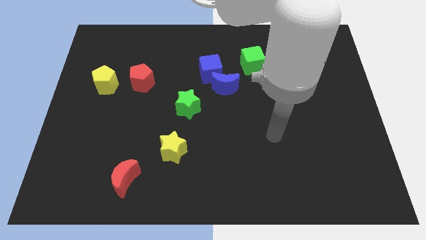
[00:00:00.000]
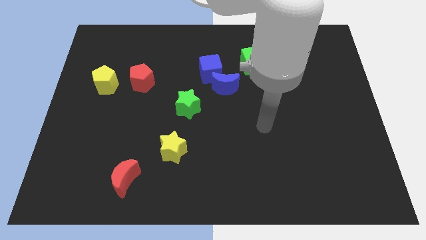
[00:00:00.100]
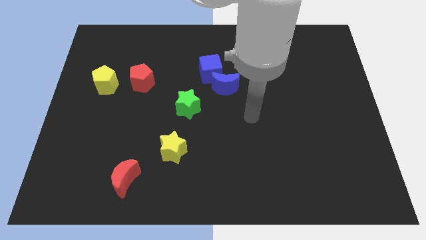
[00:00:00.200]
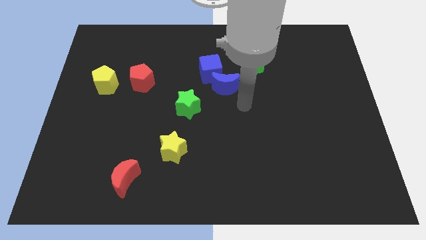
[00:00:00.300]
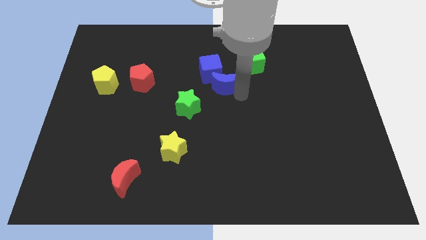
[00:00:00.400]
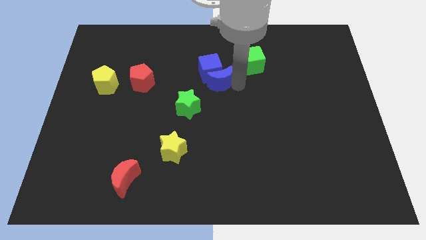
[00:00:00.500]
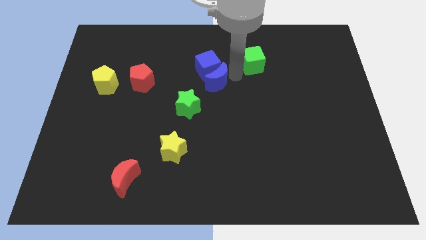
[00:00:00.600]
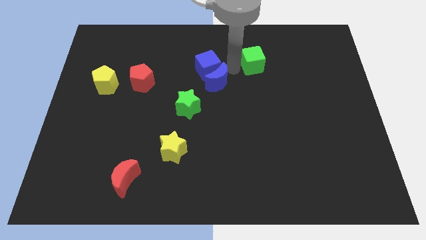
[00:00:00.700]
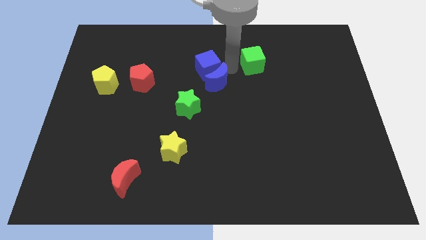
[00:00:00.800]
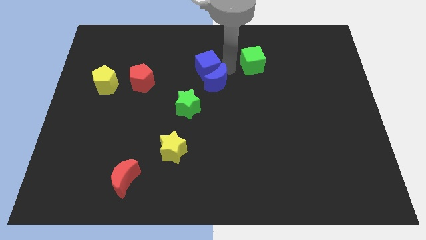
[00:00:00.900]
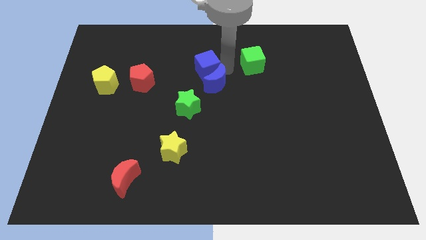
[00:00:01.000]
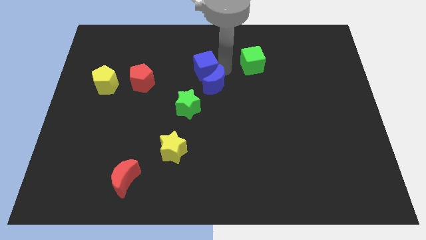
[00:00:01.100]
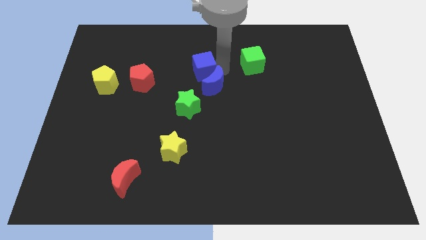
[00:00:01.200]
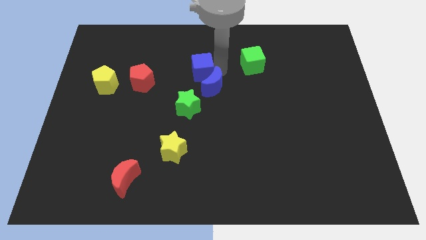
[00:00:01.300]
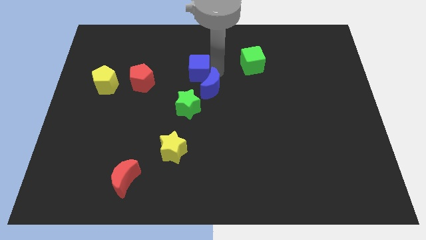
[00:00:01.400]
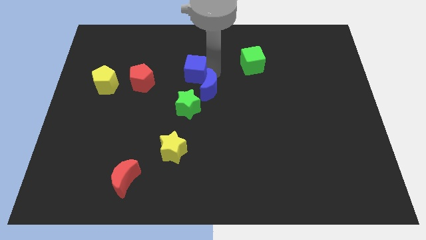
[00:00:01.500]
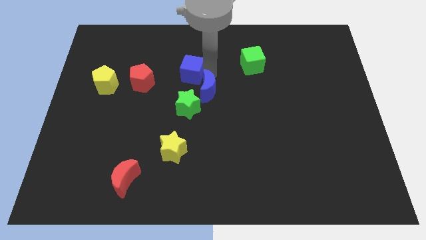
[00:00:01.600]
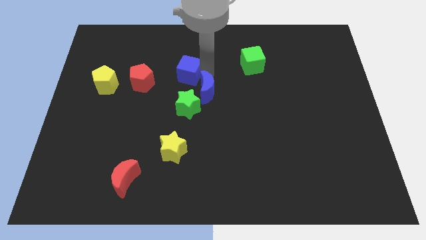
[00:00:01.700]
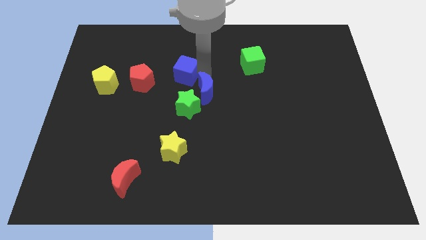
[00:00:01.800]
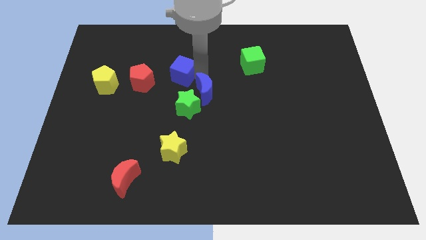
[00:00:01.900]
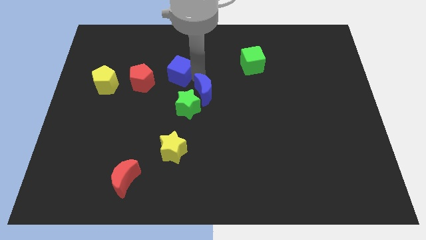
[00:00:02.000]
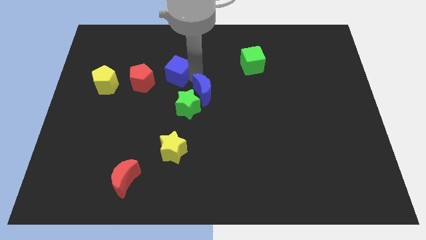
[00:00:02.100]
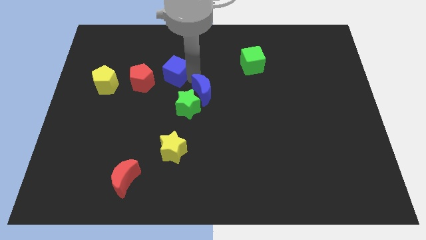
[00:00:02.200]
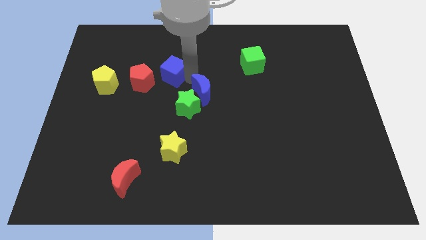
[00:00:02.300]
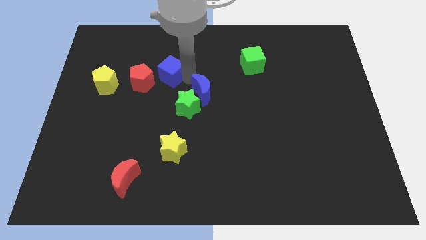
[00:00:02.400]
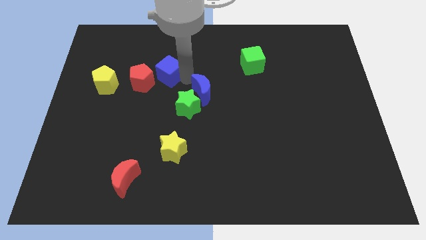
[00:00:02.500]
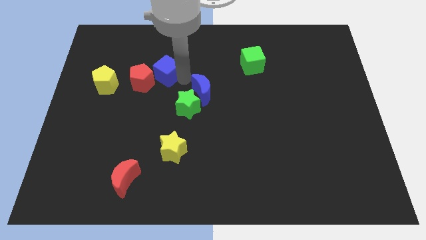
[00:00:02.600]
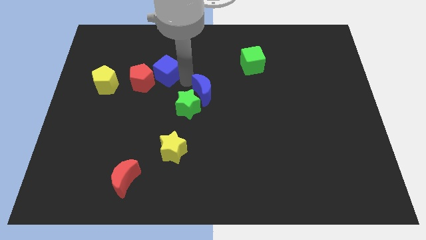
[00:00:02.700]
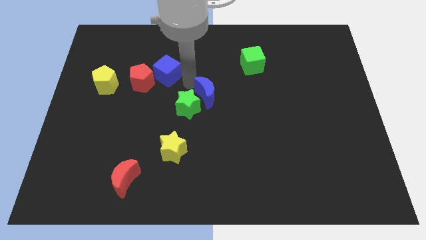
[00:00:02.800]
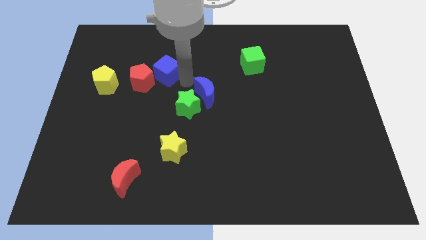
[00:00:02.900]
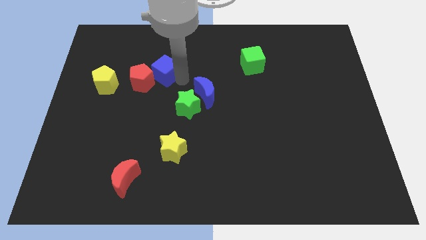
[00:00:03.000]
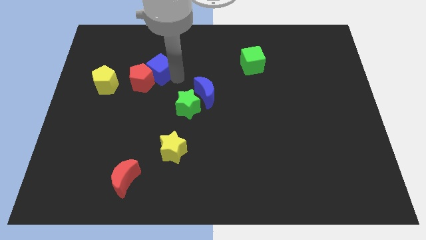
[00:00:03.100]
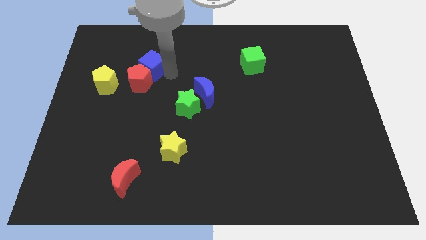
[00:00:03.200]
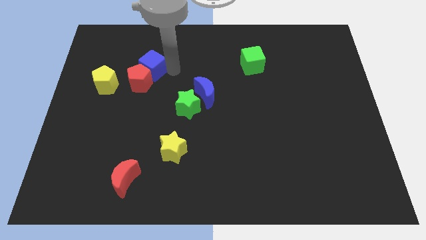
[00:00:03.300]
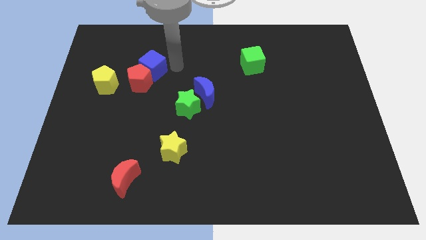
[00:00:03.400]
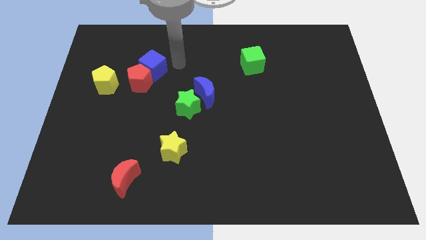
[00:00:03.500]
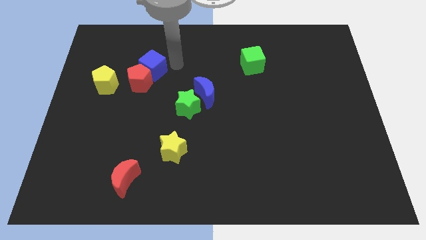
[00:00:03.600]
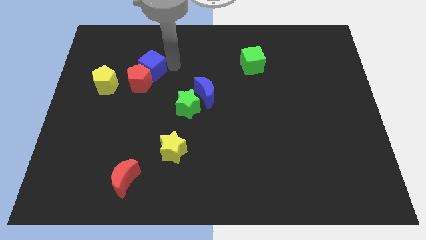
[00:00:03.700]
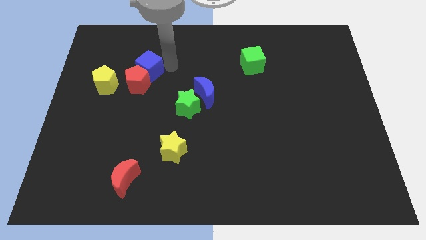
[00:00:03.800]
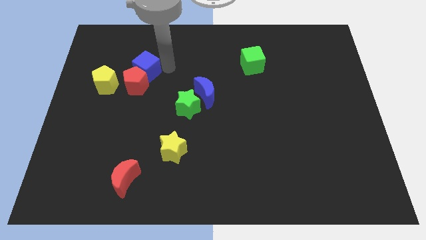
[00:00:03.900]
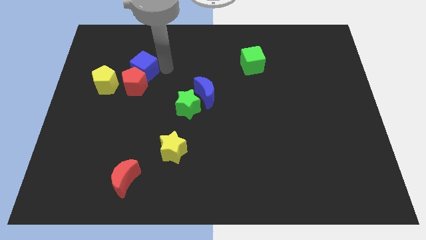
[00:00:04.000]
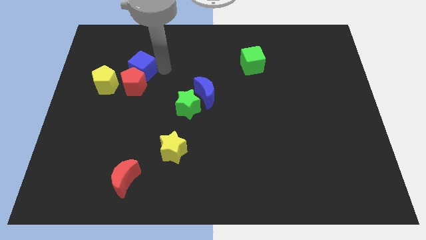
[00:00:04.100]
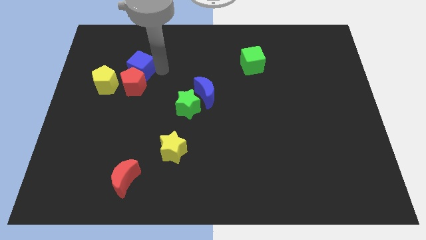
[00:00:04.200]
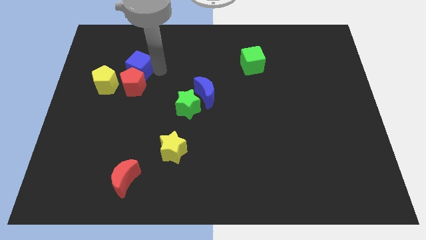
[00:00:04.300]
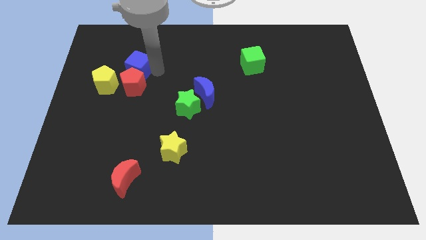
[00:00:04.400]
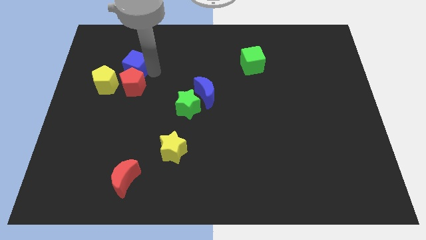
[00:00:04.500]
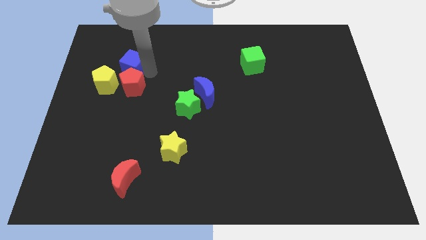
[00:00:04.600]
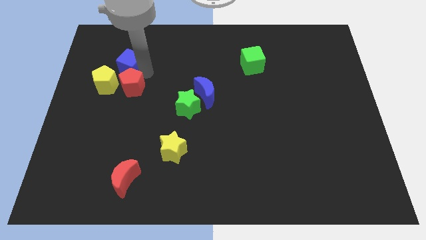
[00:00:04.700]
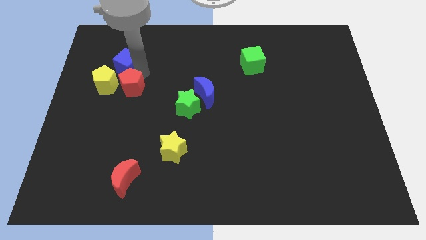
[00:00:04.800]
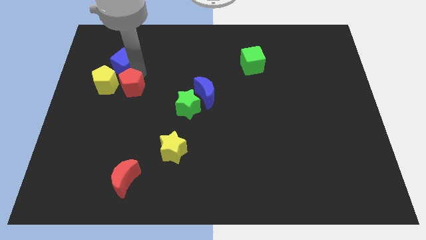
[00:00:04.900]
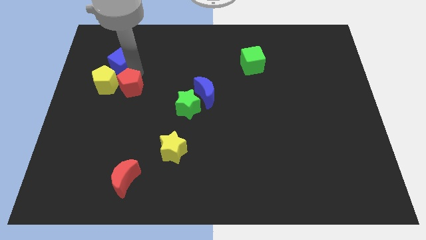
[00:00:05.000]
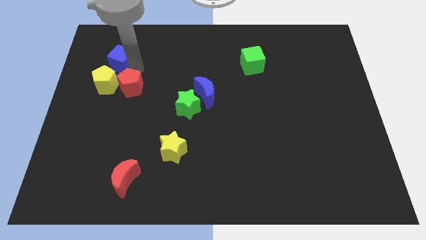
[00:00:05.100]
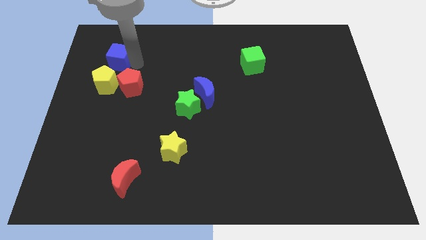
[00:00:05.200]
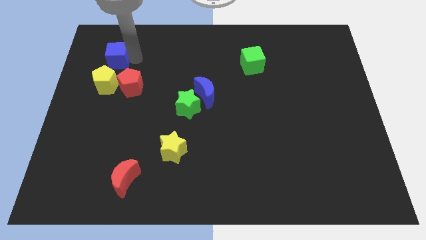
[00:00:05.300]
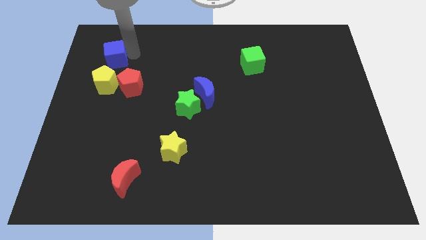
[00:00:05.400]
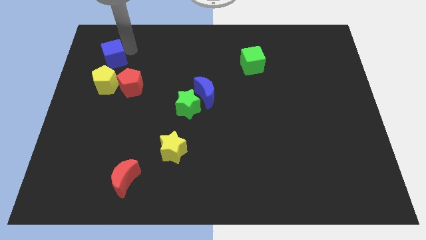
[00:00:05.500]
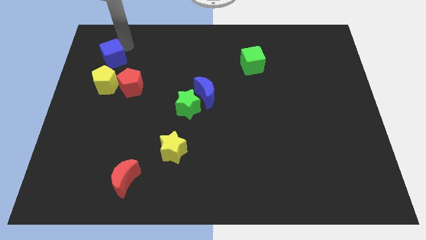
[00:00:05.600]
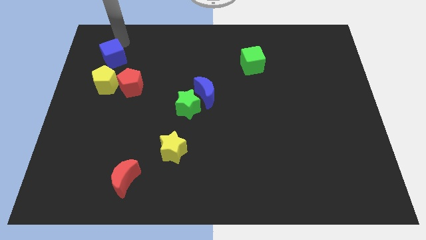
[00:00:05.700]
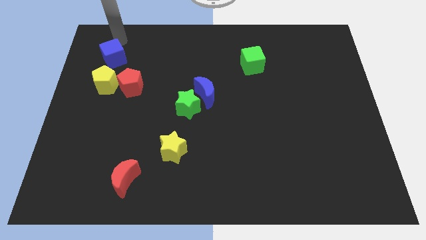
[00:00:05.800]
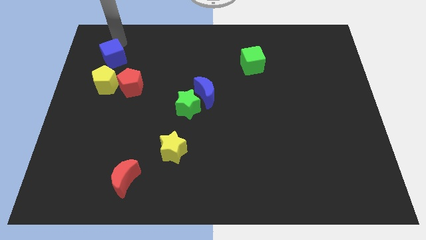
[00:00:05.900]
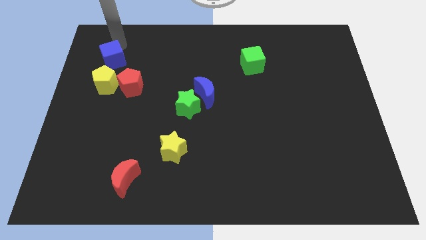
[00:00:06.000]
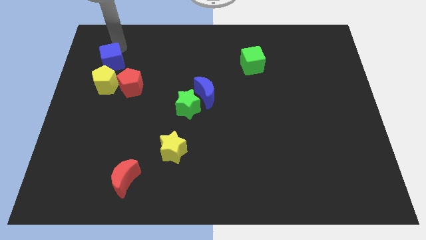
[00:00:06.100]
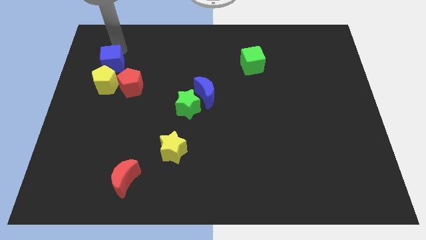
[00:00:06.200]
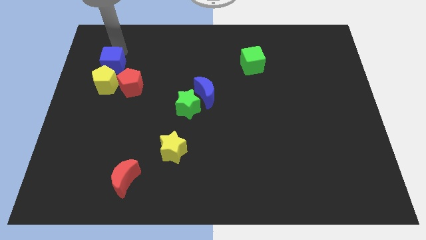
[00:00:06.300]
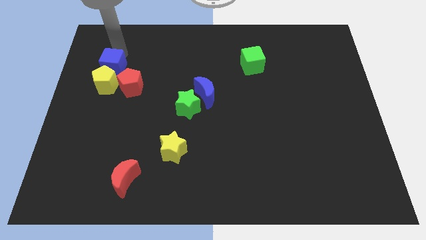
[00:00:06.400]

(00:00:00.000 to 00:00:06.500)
move the blue cube next to the yellow pentagon

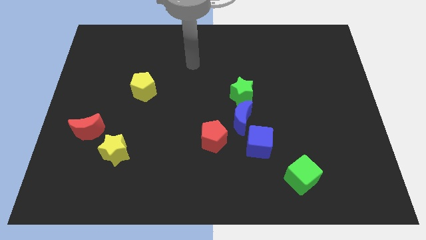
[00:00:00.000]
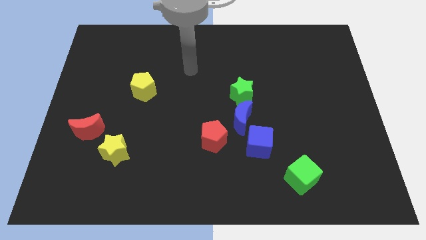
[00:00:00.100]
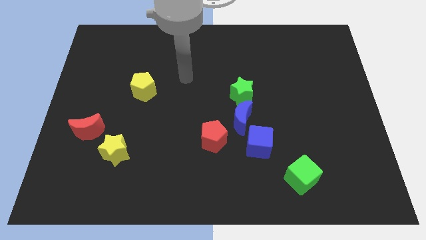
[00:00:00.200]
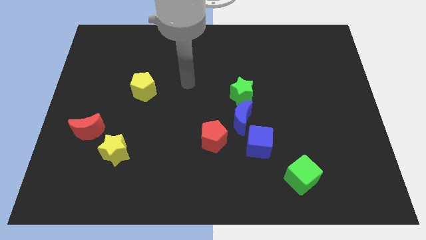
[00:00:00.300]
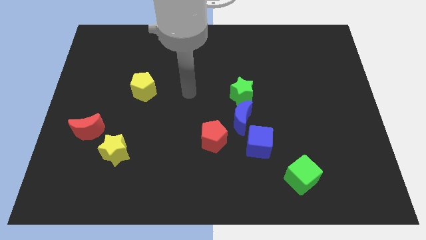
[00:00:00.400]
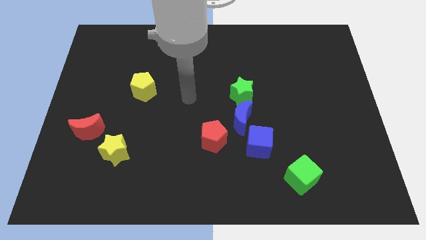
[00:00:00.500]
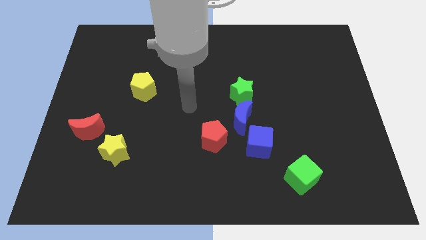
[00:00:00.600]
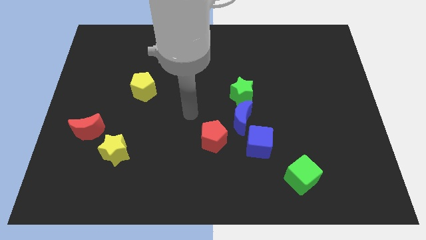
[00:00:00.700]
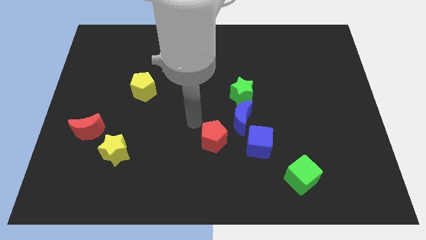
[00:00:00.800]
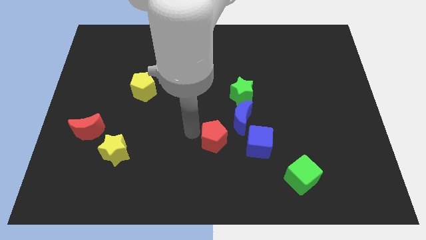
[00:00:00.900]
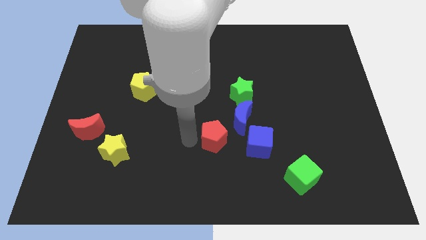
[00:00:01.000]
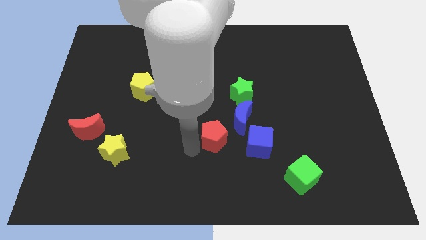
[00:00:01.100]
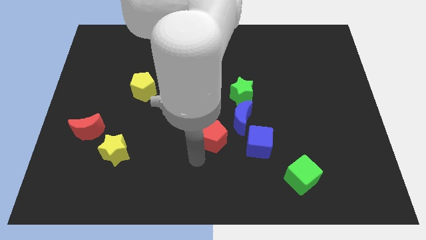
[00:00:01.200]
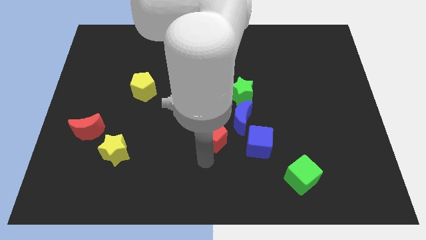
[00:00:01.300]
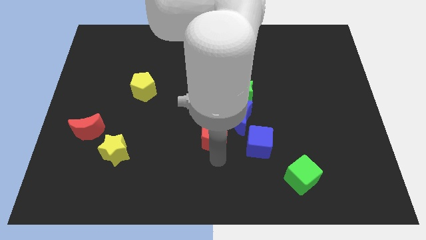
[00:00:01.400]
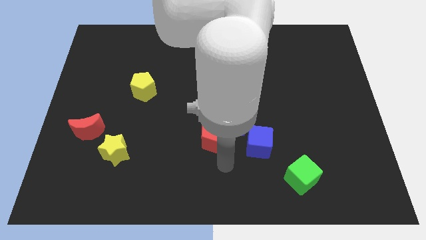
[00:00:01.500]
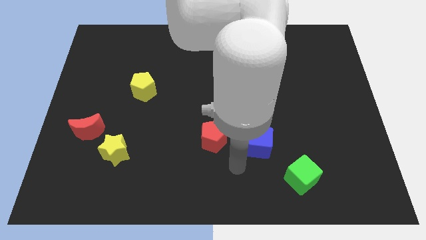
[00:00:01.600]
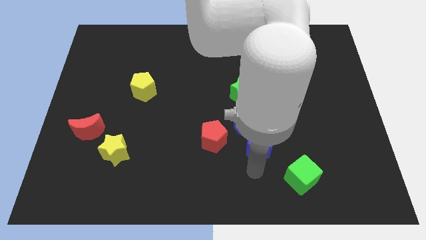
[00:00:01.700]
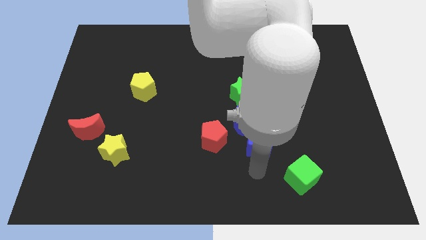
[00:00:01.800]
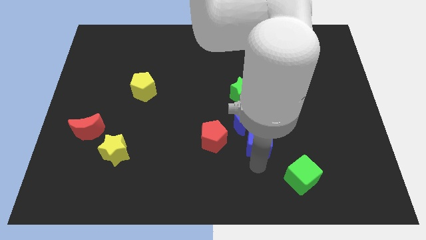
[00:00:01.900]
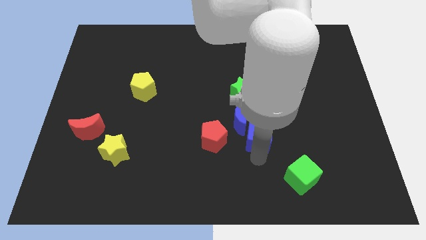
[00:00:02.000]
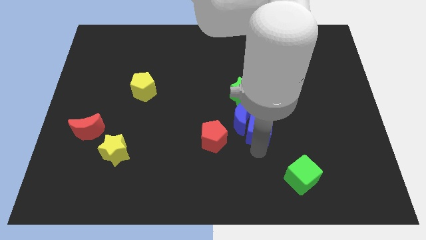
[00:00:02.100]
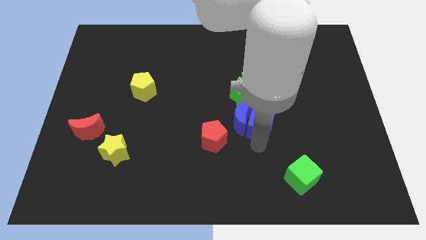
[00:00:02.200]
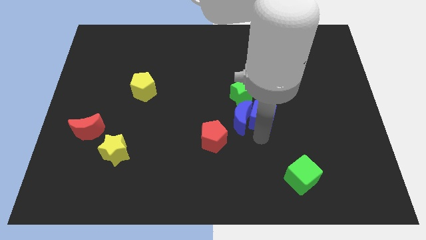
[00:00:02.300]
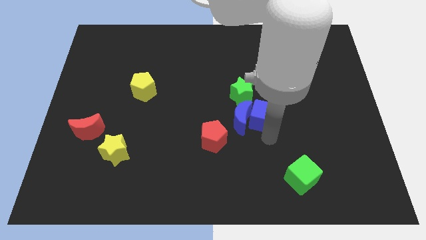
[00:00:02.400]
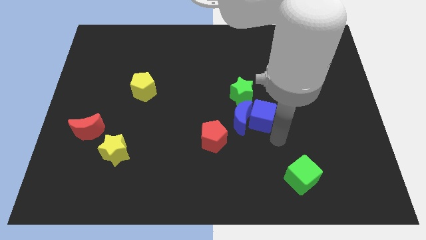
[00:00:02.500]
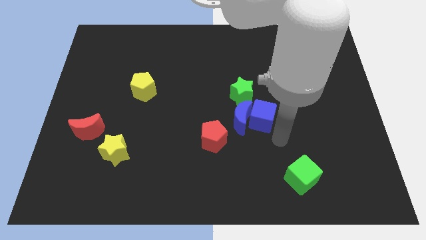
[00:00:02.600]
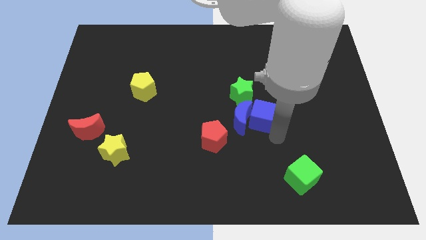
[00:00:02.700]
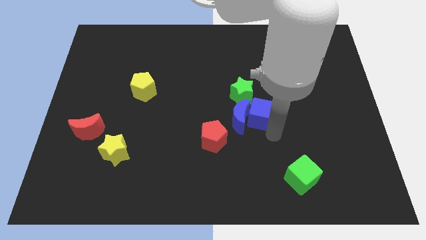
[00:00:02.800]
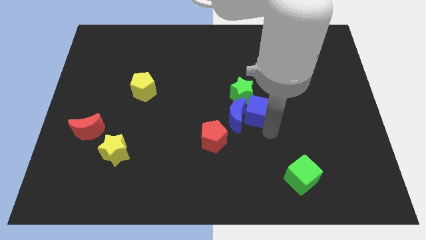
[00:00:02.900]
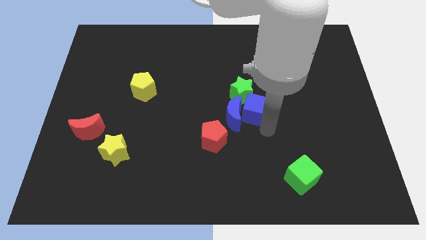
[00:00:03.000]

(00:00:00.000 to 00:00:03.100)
push the blue cube close to the green star
